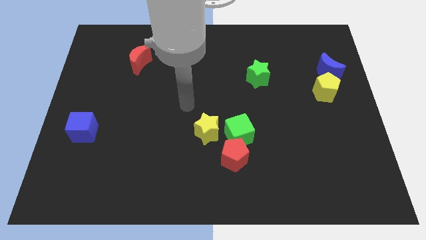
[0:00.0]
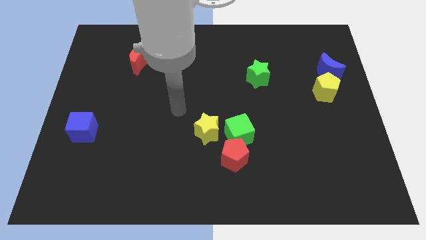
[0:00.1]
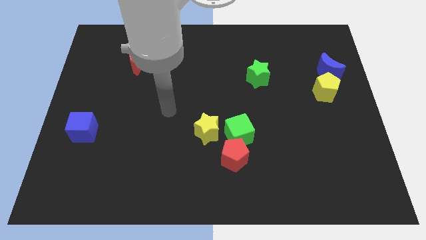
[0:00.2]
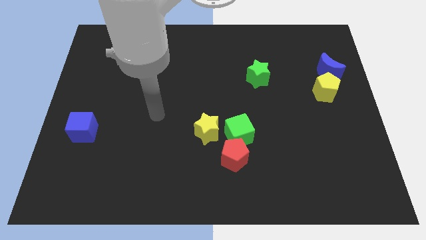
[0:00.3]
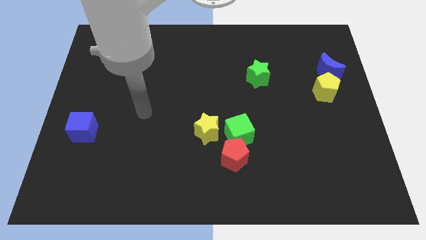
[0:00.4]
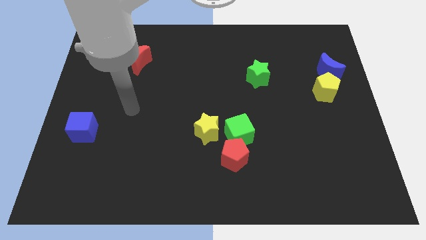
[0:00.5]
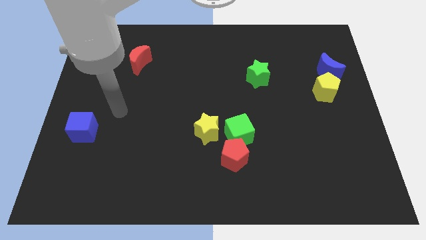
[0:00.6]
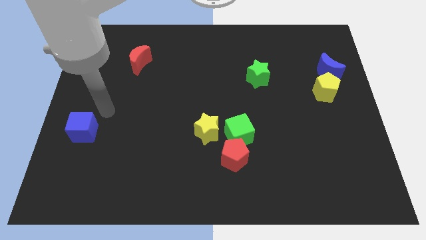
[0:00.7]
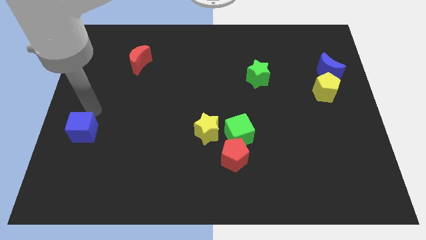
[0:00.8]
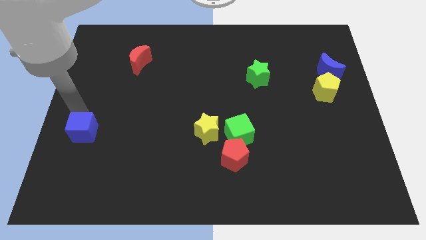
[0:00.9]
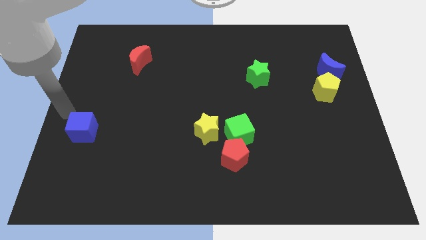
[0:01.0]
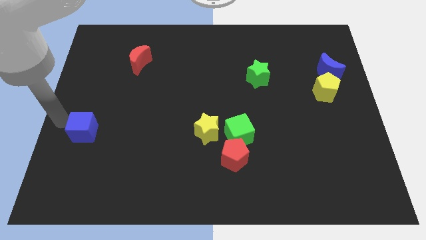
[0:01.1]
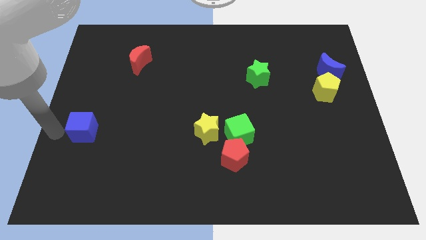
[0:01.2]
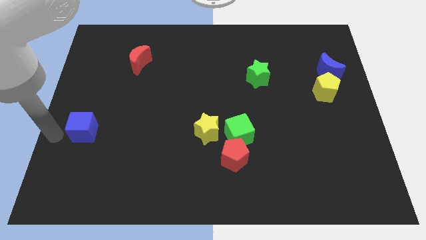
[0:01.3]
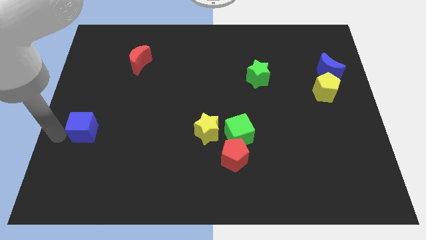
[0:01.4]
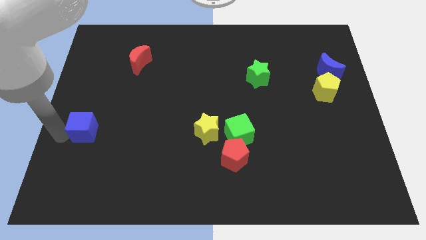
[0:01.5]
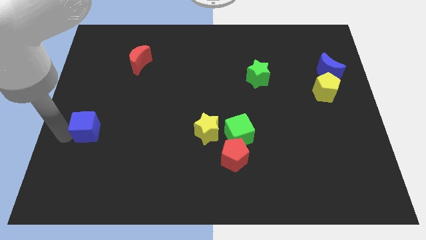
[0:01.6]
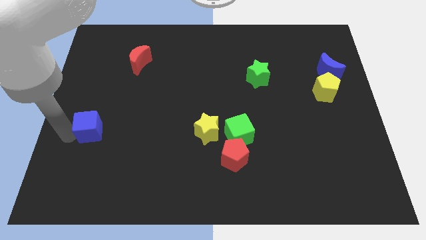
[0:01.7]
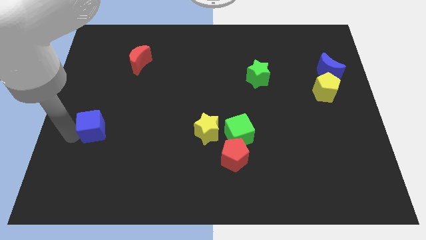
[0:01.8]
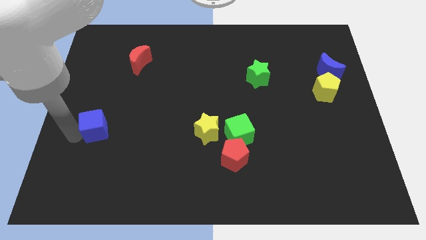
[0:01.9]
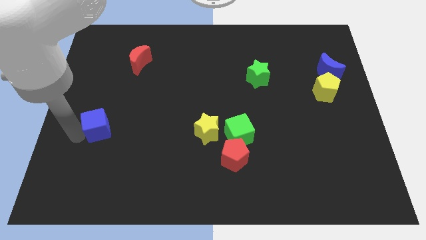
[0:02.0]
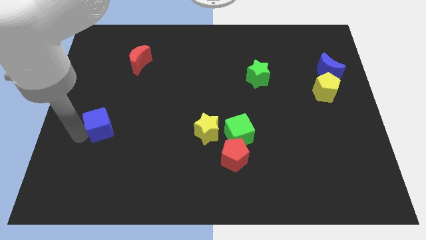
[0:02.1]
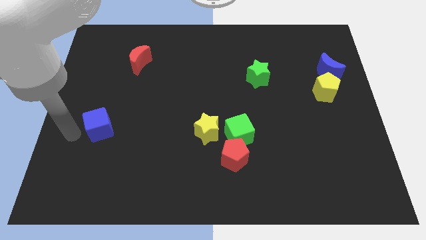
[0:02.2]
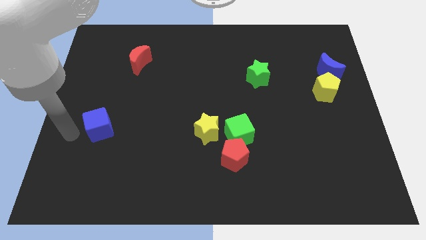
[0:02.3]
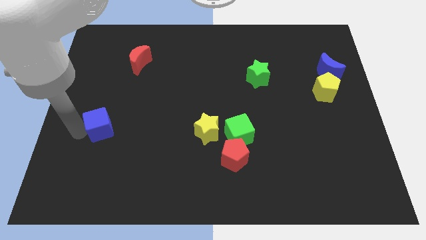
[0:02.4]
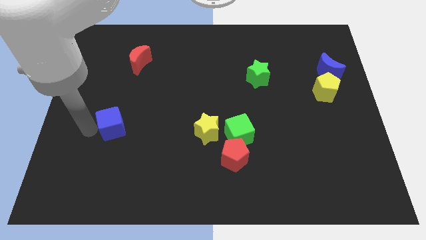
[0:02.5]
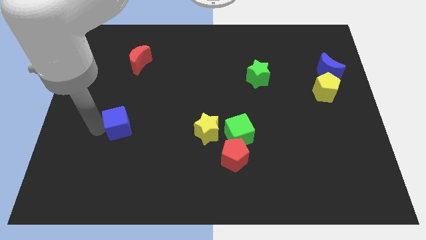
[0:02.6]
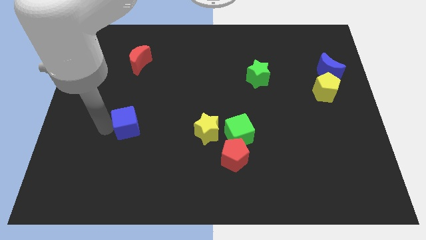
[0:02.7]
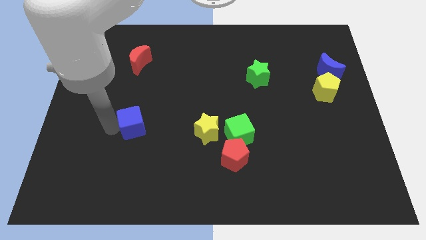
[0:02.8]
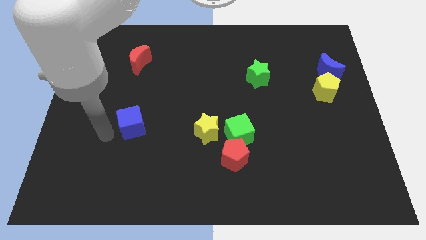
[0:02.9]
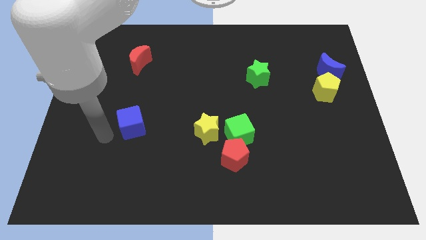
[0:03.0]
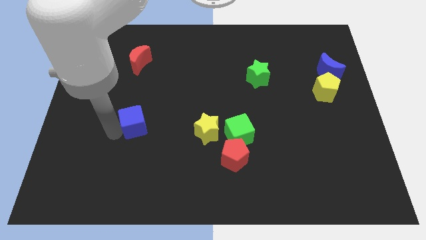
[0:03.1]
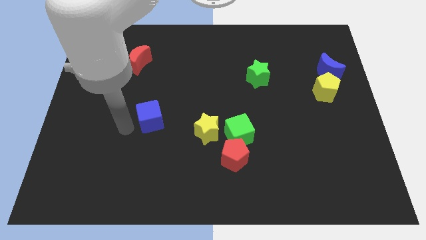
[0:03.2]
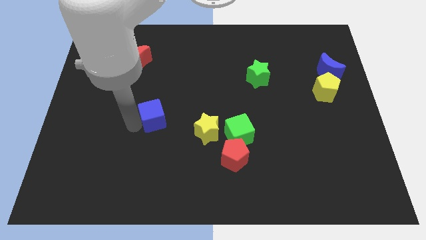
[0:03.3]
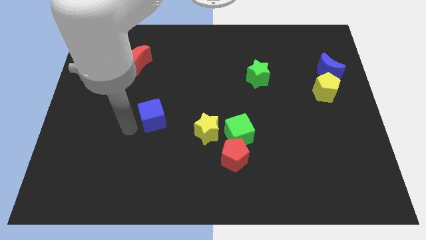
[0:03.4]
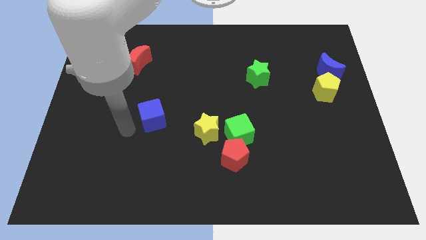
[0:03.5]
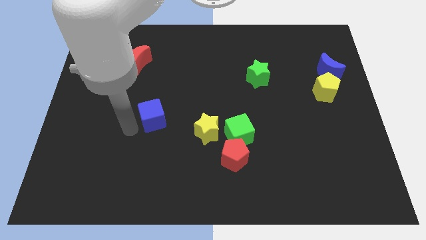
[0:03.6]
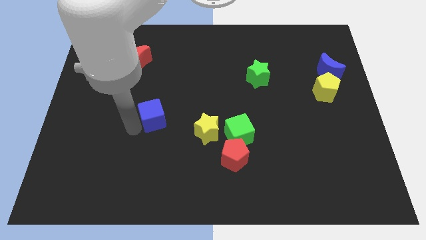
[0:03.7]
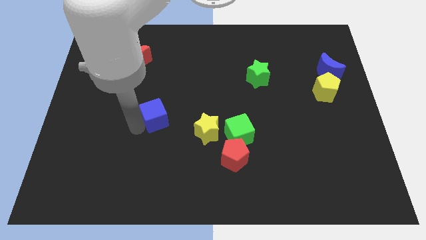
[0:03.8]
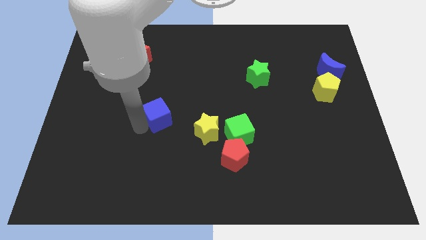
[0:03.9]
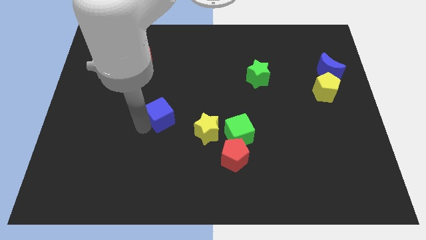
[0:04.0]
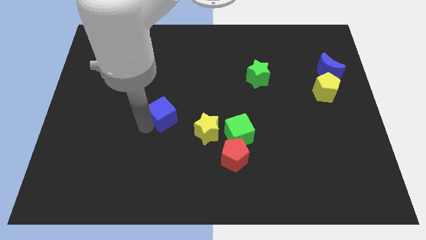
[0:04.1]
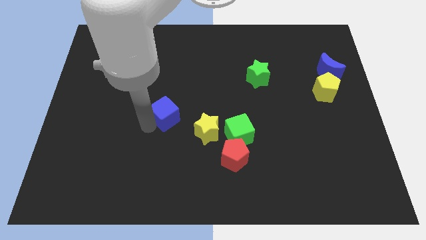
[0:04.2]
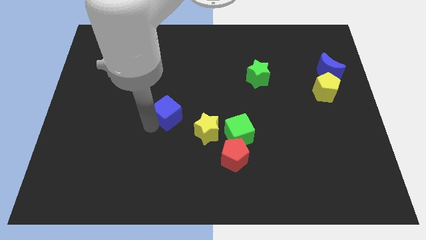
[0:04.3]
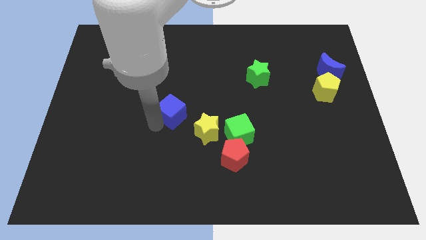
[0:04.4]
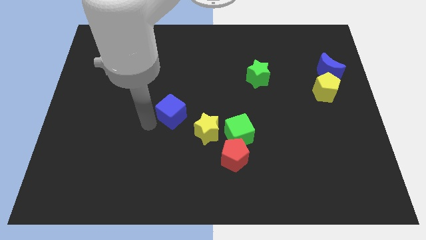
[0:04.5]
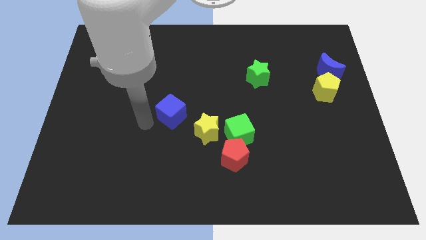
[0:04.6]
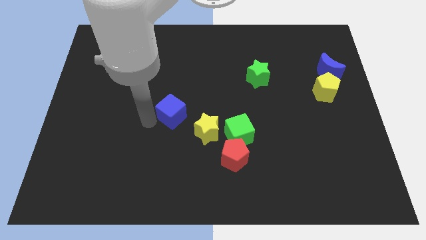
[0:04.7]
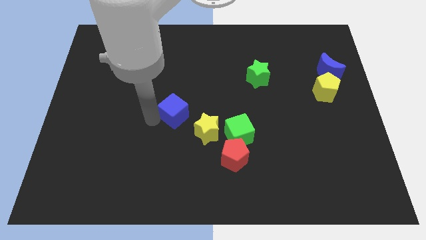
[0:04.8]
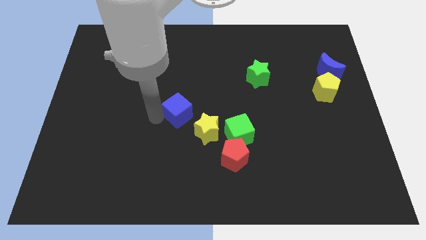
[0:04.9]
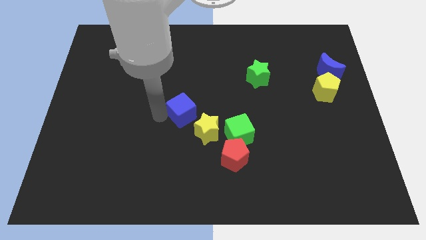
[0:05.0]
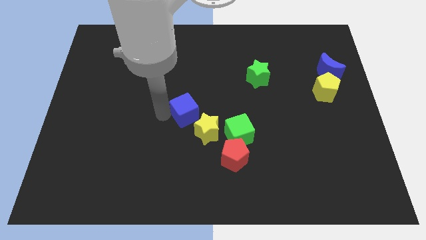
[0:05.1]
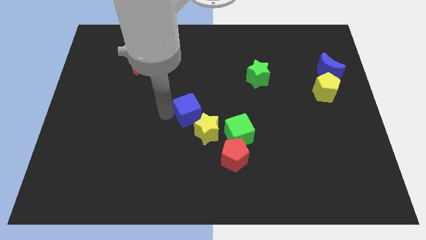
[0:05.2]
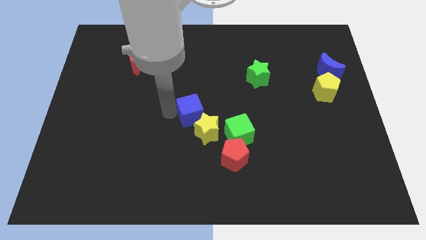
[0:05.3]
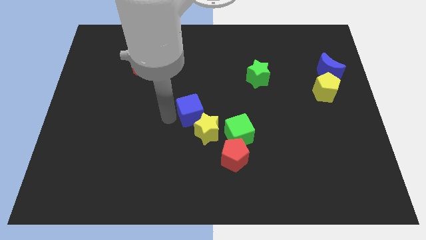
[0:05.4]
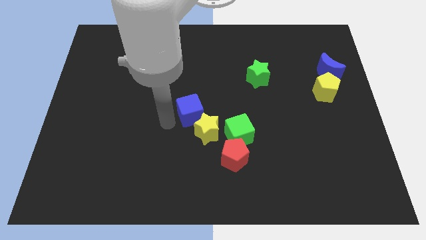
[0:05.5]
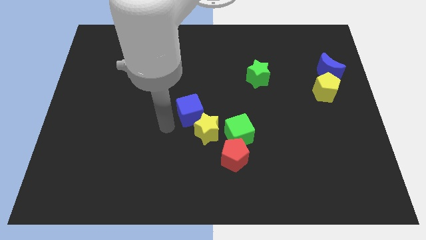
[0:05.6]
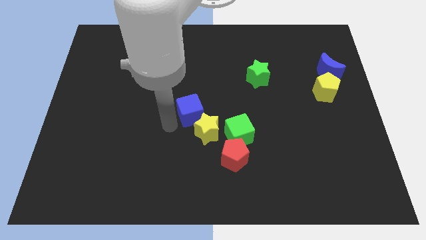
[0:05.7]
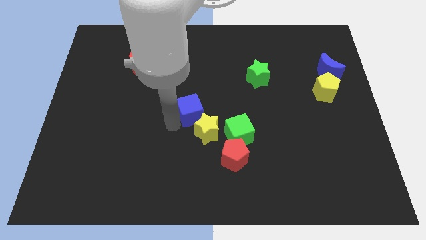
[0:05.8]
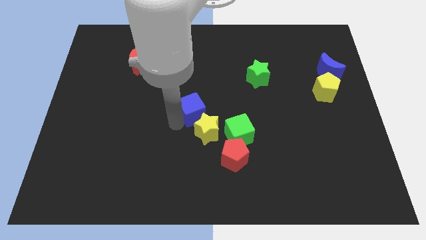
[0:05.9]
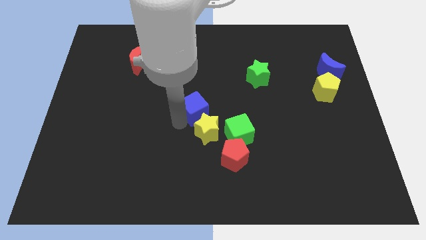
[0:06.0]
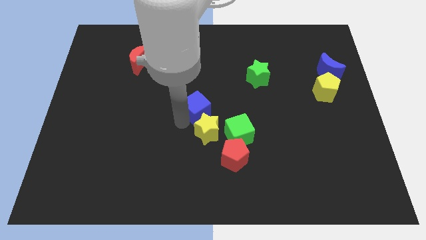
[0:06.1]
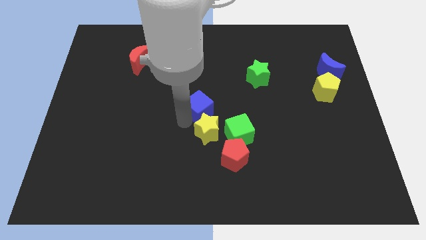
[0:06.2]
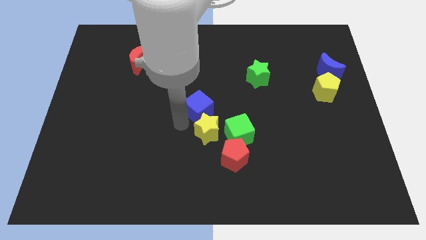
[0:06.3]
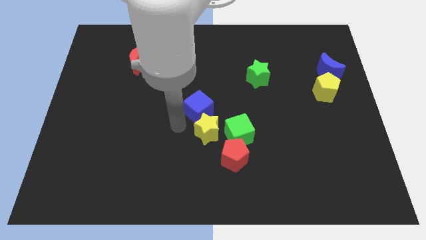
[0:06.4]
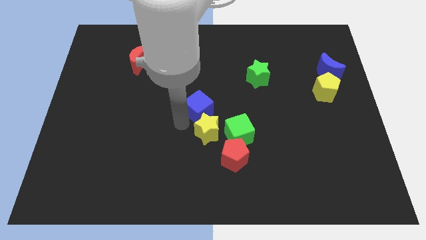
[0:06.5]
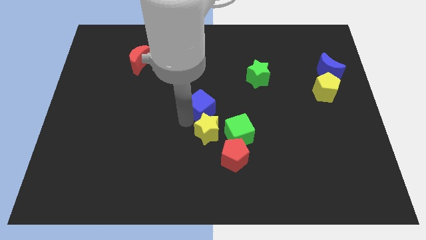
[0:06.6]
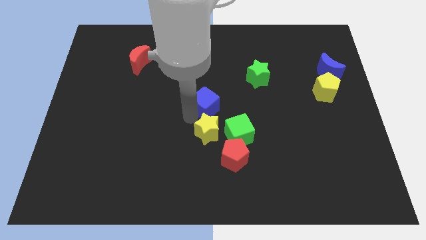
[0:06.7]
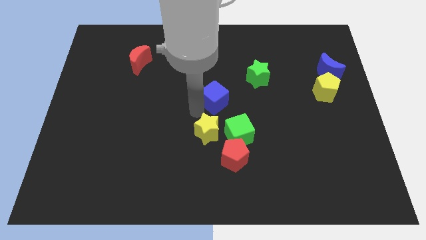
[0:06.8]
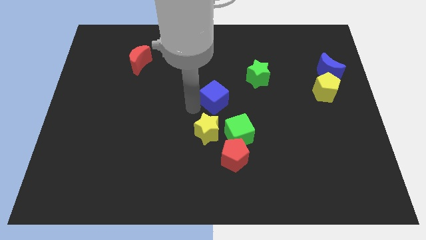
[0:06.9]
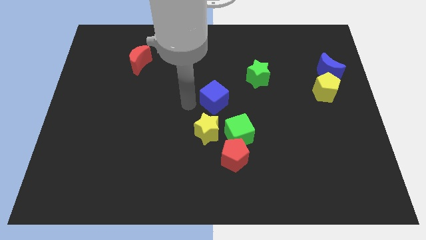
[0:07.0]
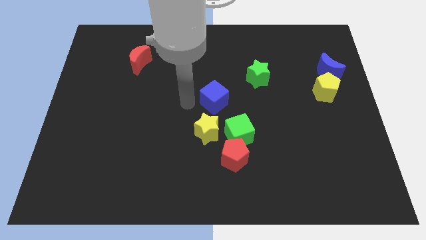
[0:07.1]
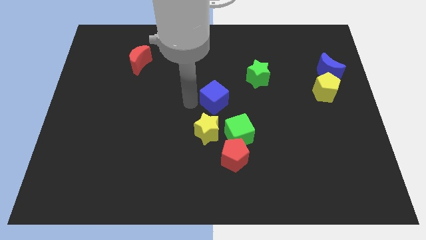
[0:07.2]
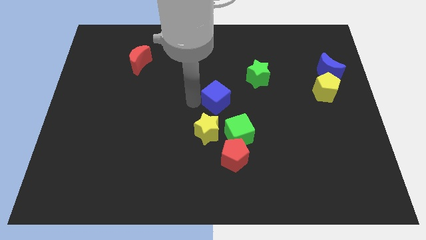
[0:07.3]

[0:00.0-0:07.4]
put the blue cube to the top of the green cube

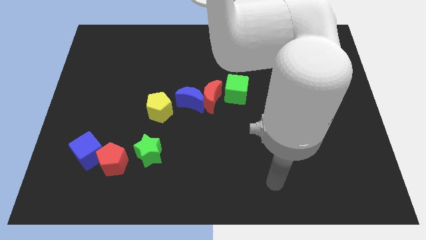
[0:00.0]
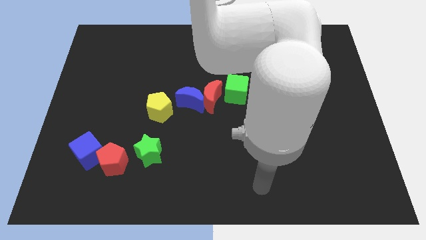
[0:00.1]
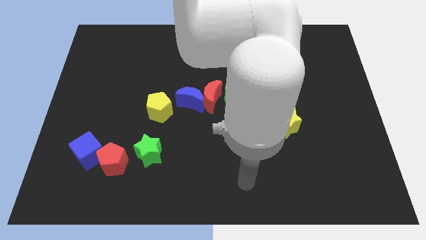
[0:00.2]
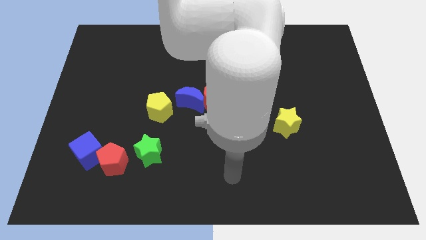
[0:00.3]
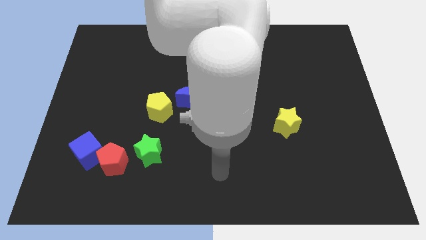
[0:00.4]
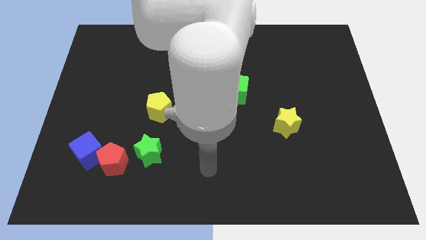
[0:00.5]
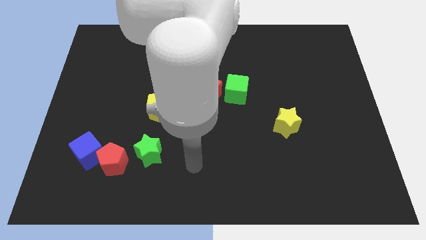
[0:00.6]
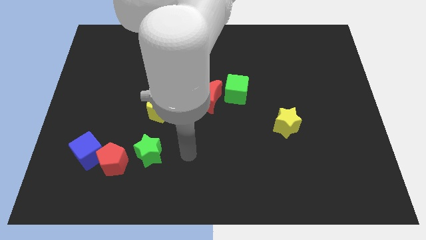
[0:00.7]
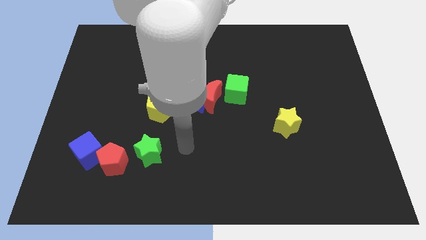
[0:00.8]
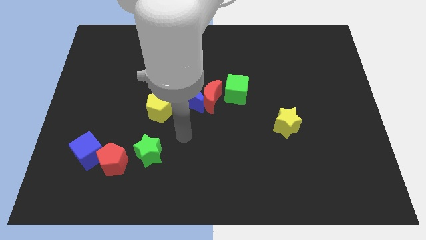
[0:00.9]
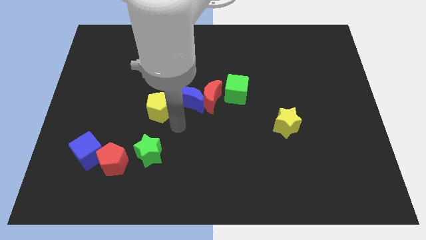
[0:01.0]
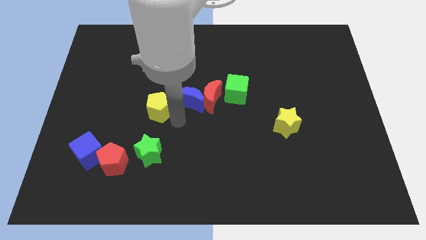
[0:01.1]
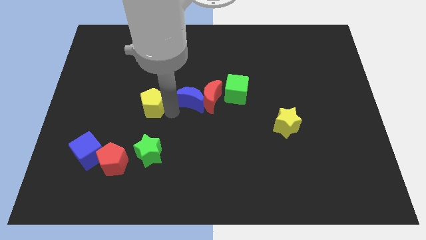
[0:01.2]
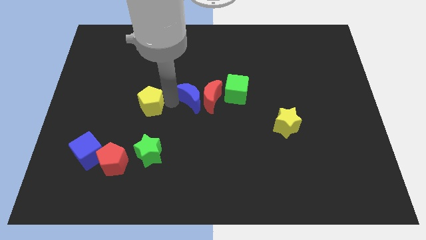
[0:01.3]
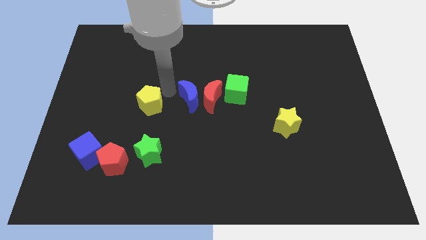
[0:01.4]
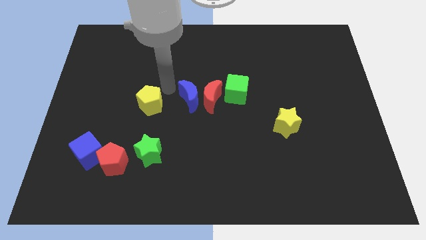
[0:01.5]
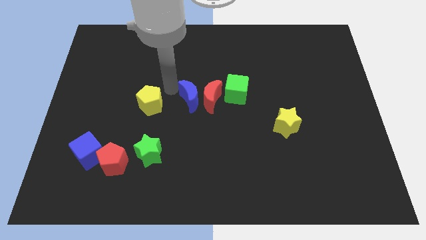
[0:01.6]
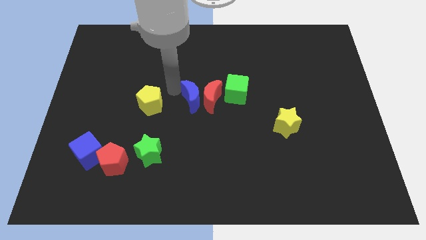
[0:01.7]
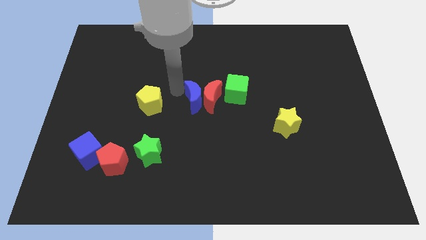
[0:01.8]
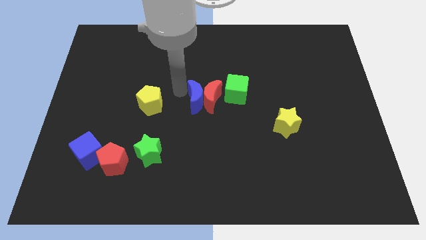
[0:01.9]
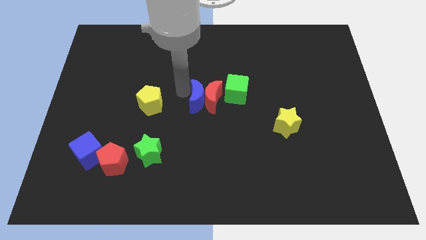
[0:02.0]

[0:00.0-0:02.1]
push the blue moon diagonally down and to the left of the green cube
